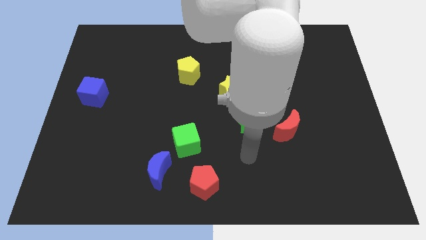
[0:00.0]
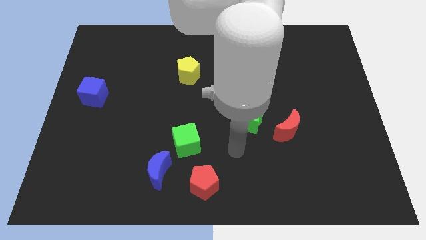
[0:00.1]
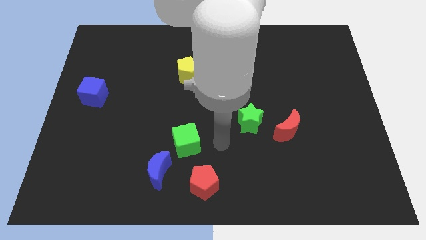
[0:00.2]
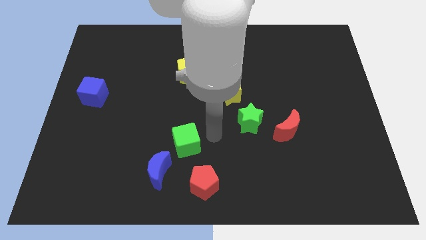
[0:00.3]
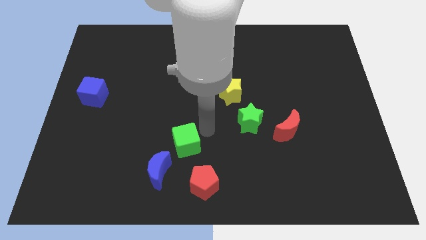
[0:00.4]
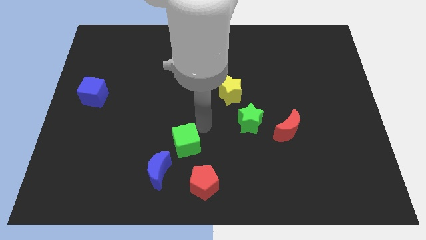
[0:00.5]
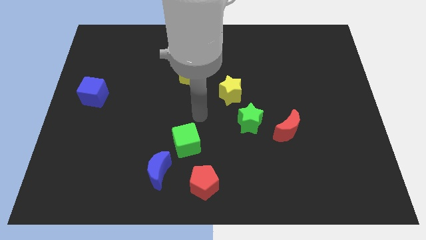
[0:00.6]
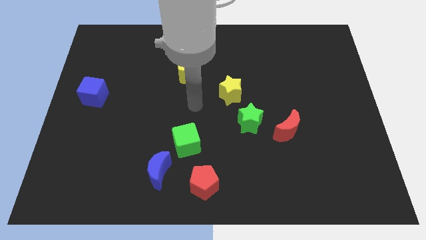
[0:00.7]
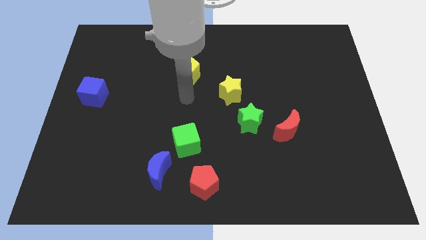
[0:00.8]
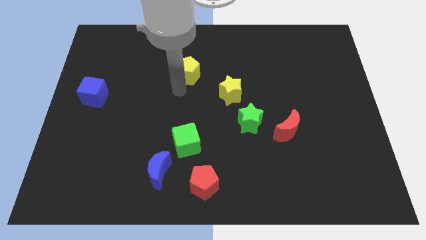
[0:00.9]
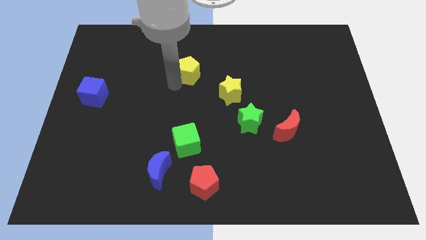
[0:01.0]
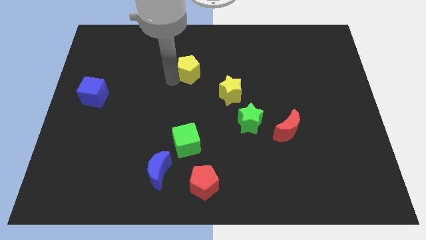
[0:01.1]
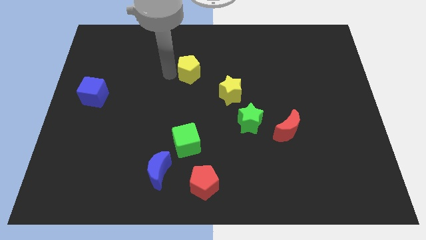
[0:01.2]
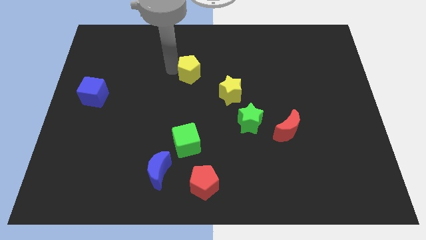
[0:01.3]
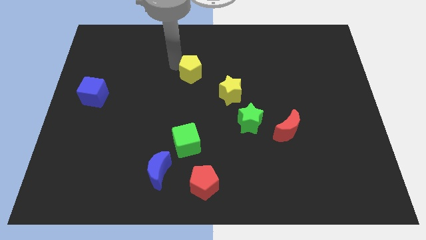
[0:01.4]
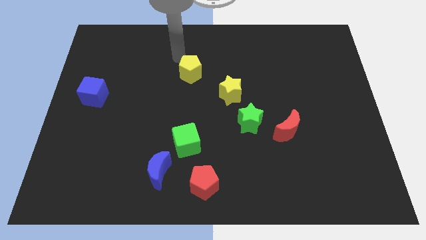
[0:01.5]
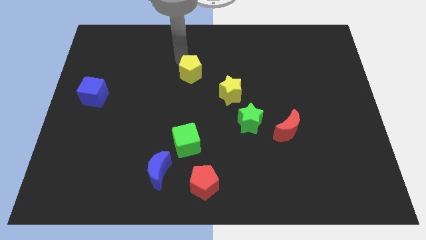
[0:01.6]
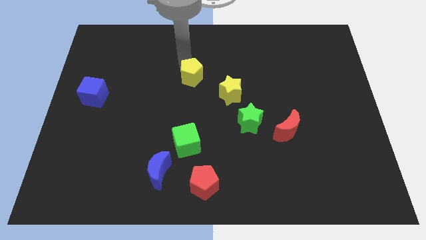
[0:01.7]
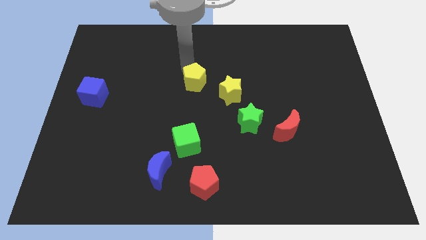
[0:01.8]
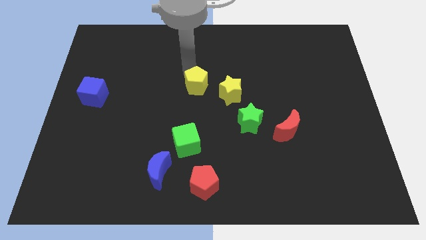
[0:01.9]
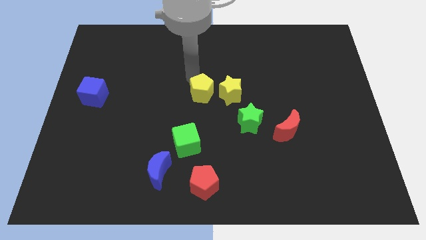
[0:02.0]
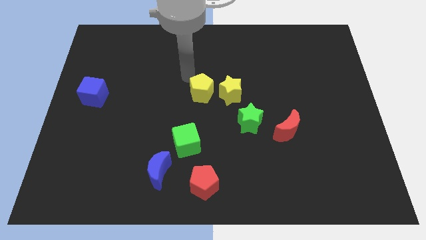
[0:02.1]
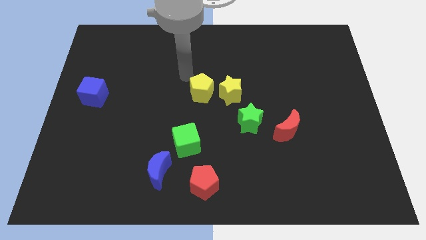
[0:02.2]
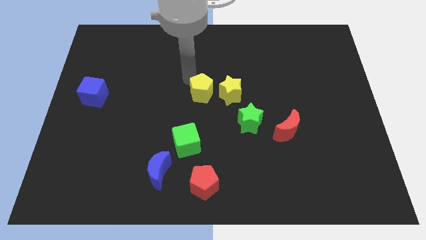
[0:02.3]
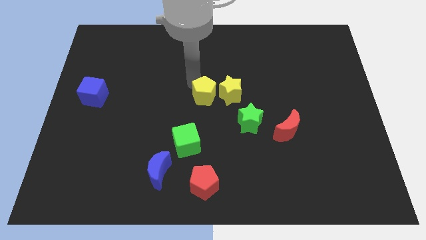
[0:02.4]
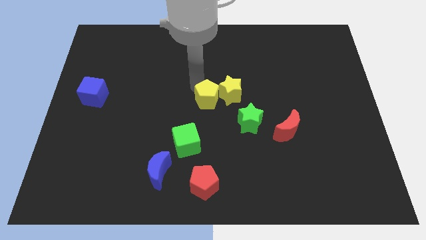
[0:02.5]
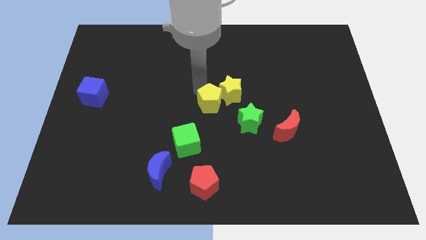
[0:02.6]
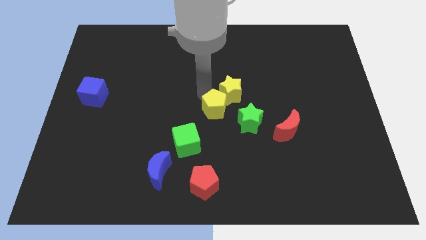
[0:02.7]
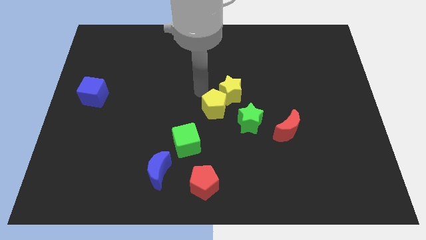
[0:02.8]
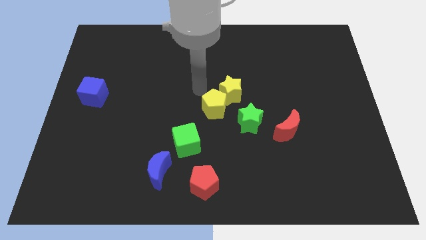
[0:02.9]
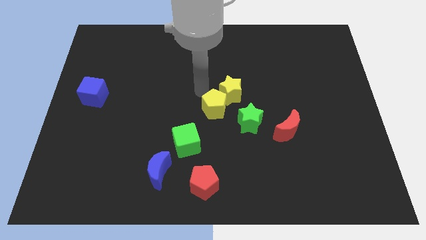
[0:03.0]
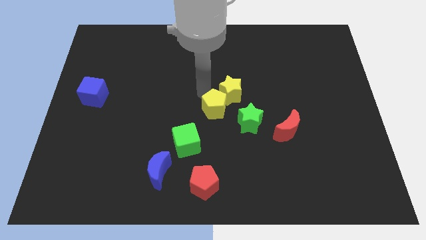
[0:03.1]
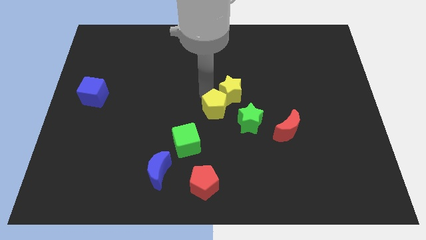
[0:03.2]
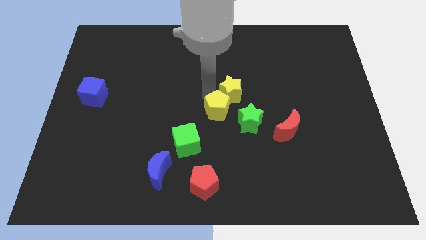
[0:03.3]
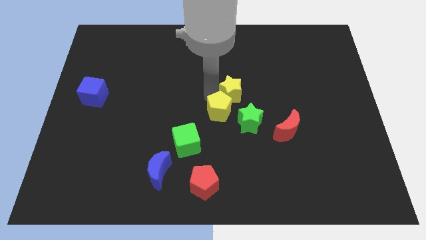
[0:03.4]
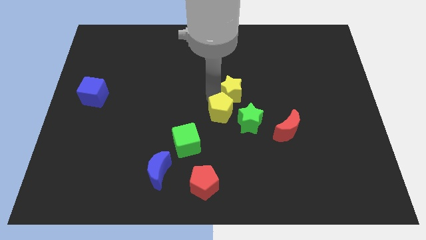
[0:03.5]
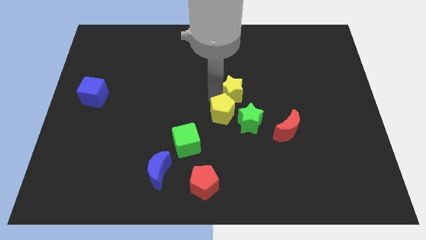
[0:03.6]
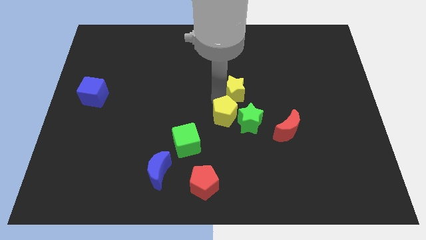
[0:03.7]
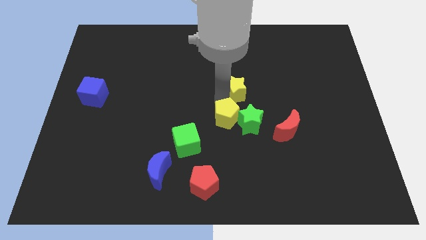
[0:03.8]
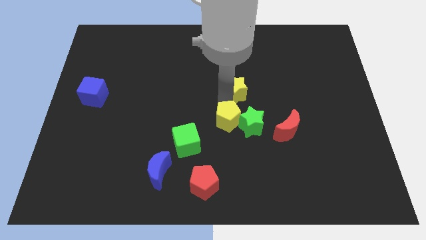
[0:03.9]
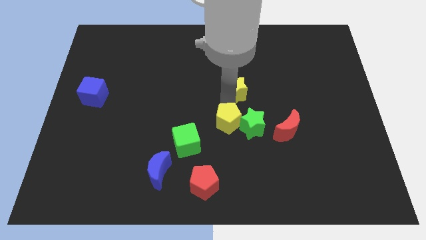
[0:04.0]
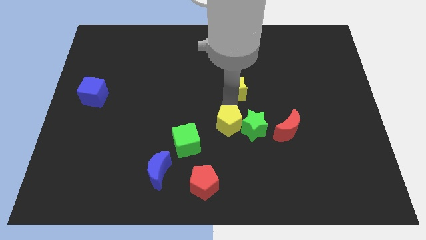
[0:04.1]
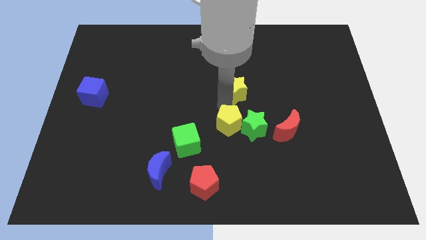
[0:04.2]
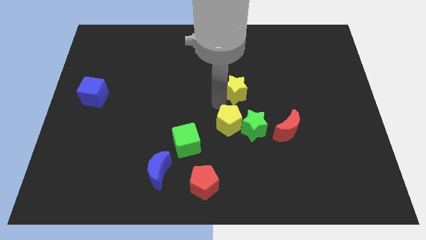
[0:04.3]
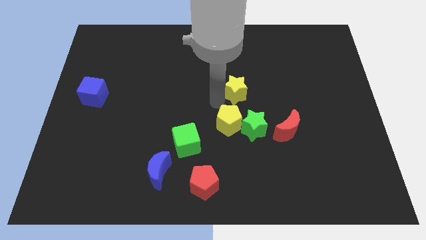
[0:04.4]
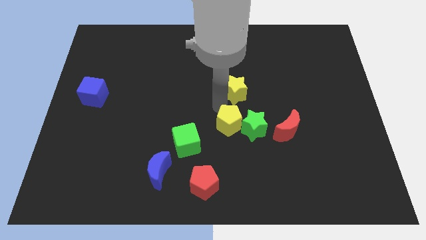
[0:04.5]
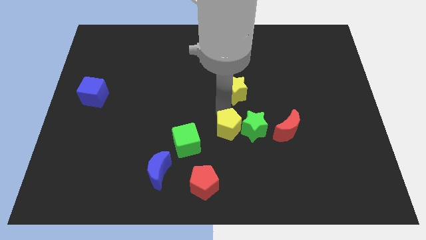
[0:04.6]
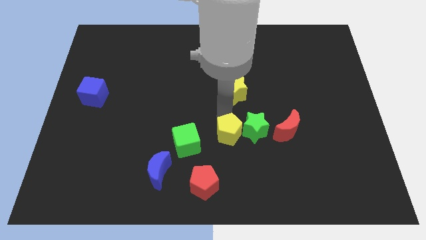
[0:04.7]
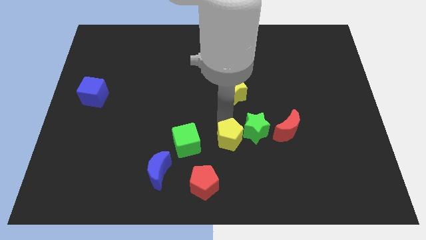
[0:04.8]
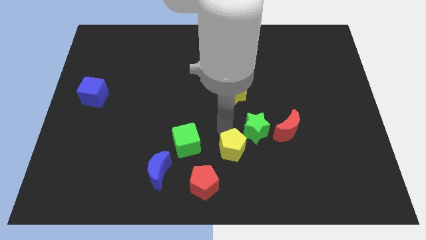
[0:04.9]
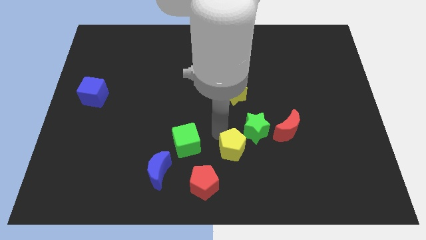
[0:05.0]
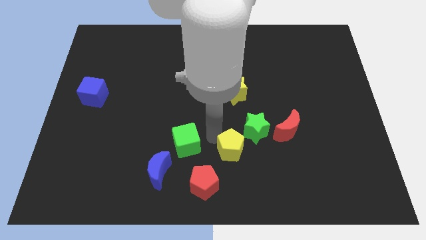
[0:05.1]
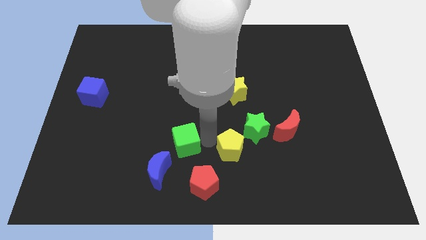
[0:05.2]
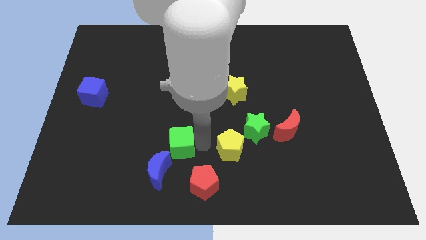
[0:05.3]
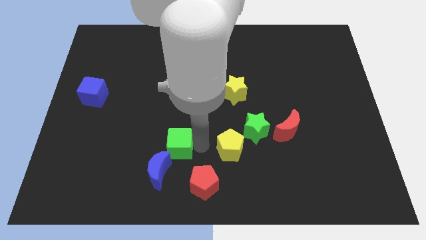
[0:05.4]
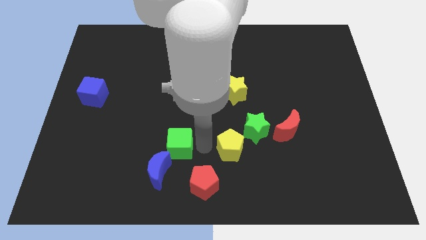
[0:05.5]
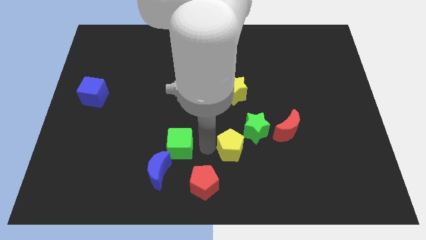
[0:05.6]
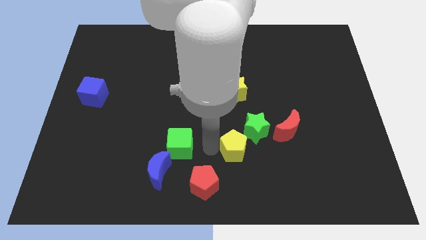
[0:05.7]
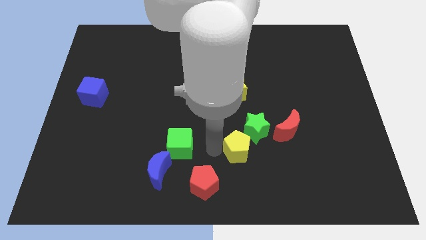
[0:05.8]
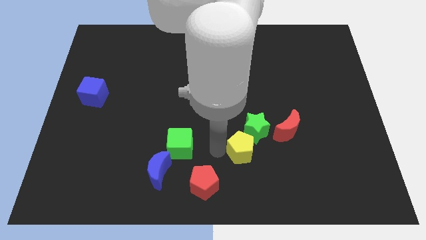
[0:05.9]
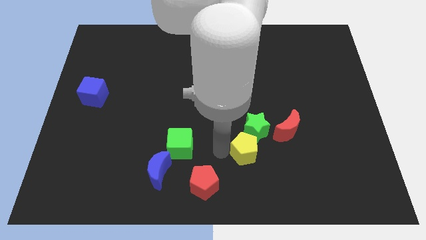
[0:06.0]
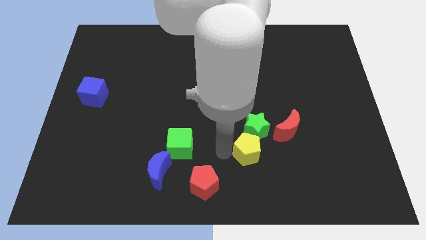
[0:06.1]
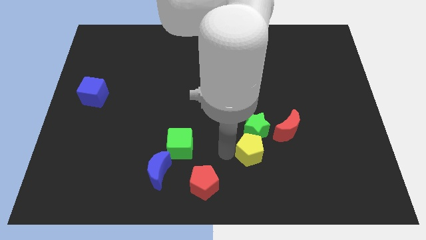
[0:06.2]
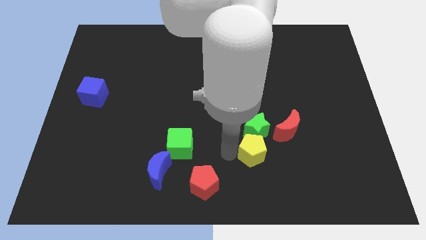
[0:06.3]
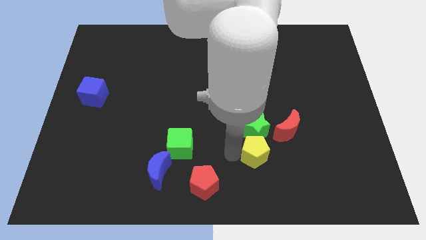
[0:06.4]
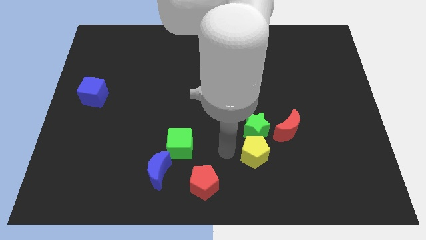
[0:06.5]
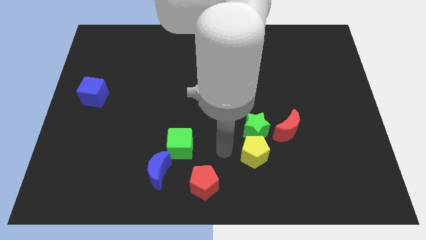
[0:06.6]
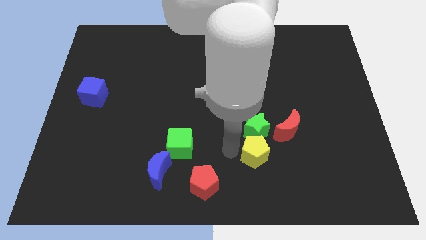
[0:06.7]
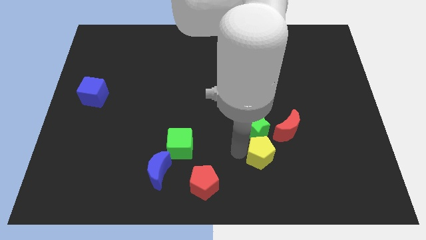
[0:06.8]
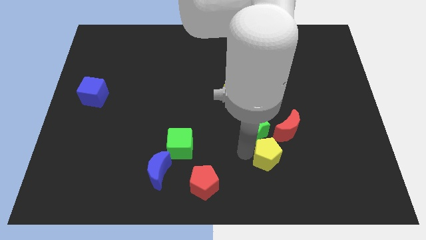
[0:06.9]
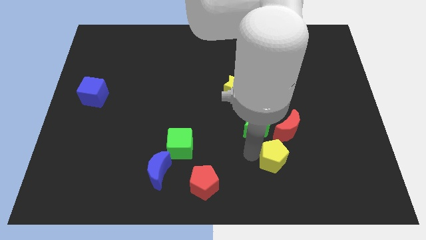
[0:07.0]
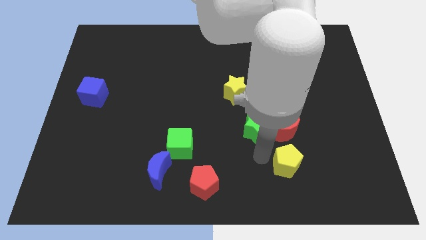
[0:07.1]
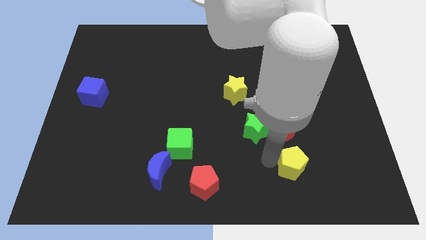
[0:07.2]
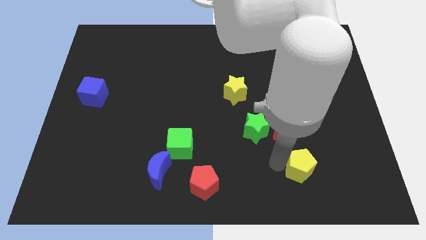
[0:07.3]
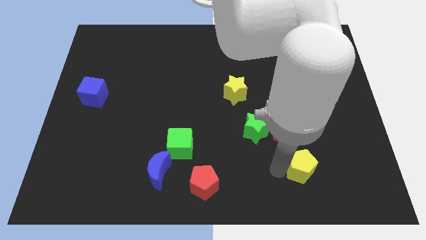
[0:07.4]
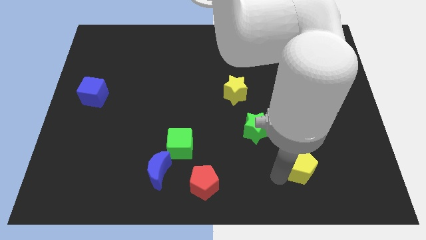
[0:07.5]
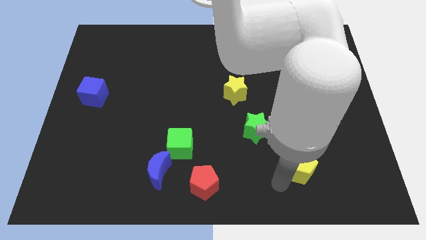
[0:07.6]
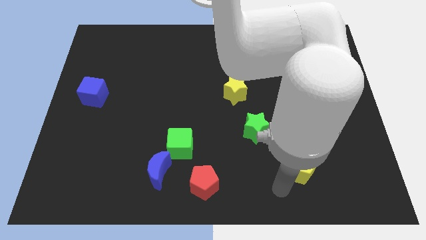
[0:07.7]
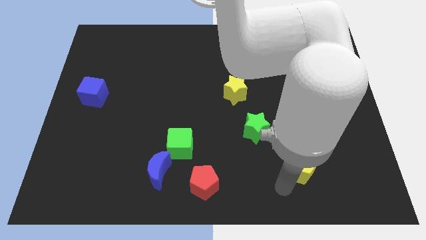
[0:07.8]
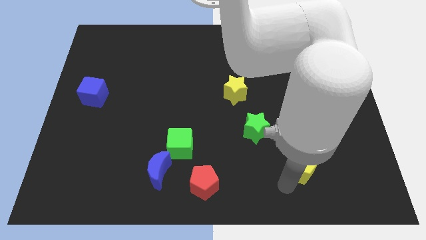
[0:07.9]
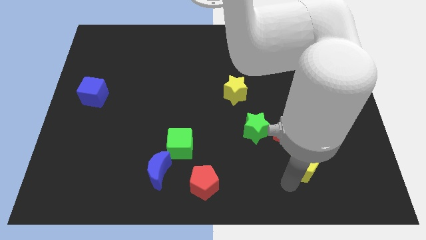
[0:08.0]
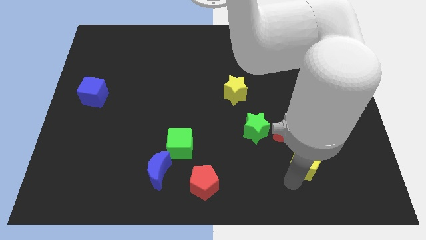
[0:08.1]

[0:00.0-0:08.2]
move the yellow pentagon to the bottom right of the red moon
